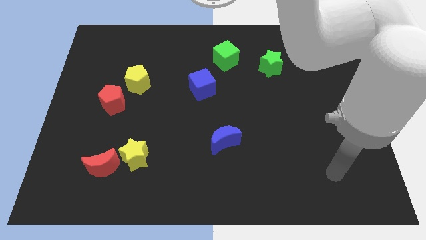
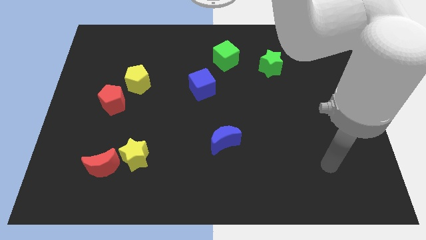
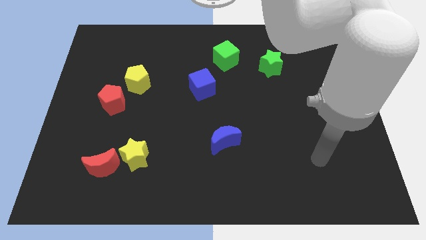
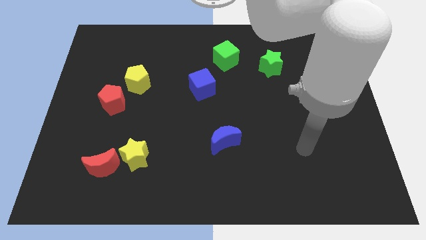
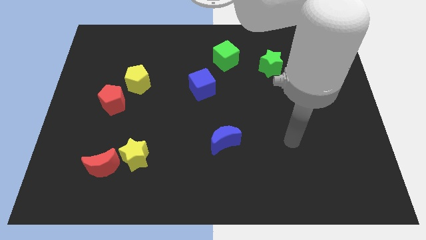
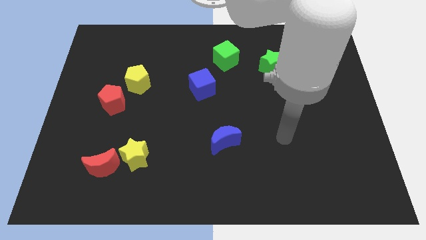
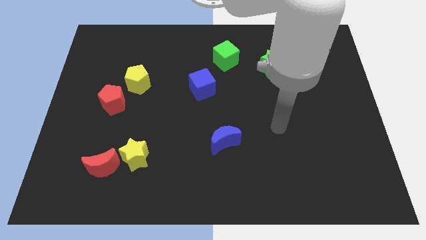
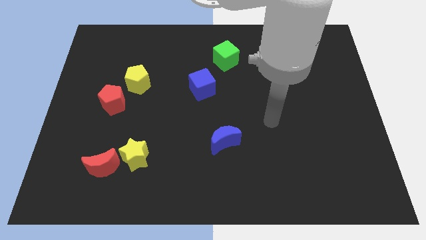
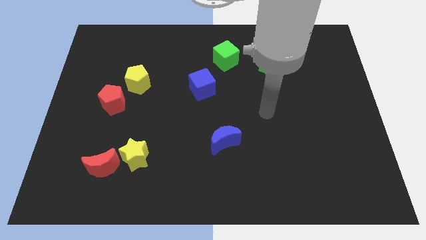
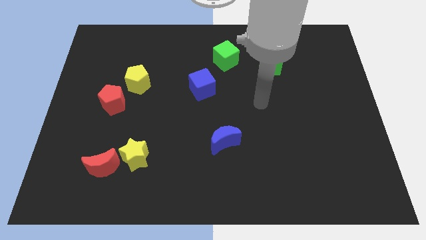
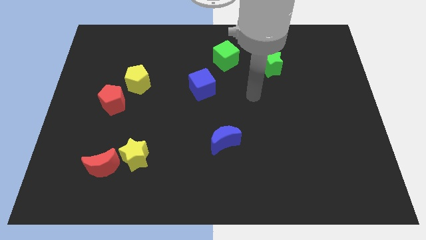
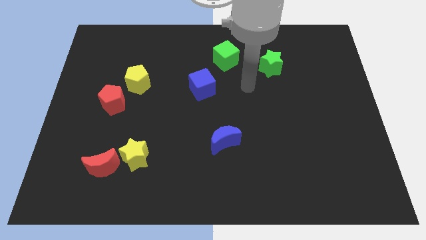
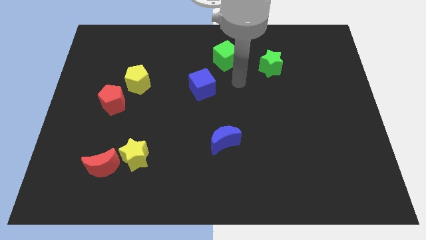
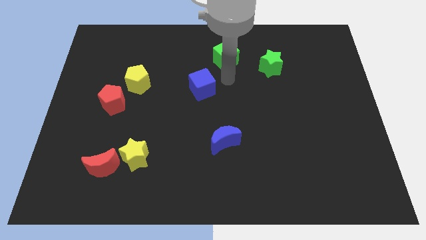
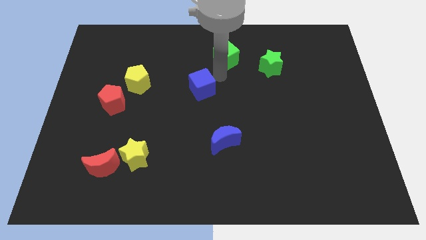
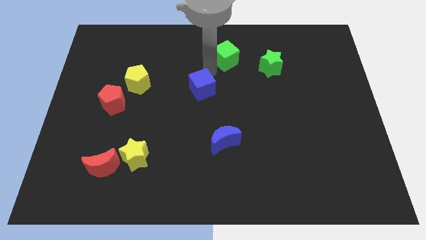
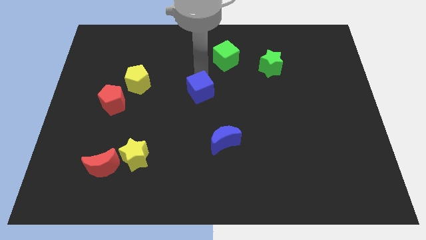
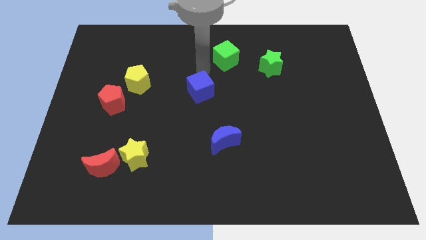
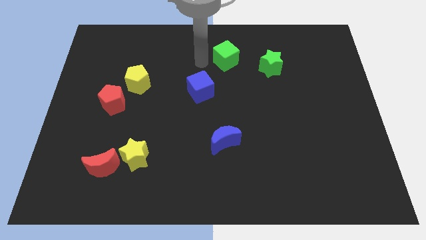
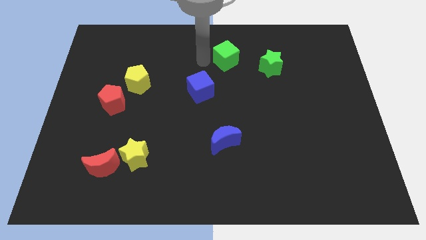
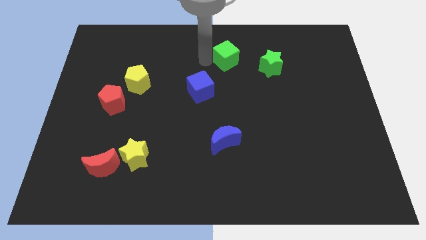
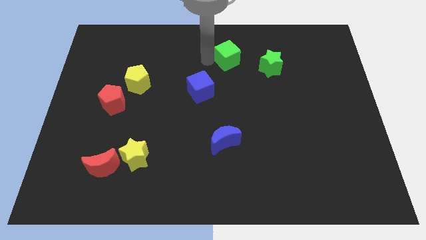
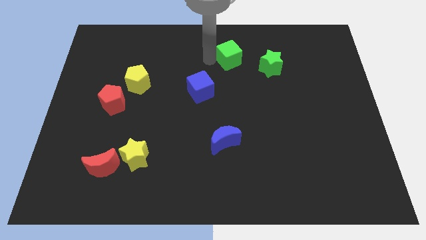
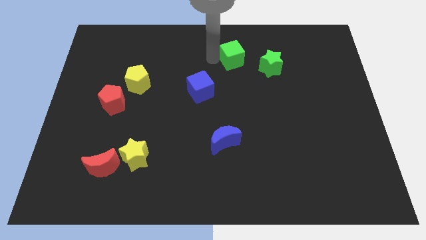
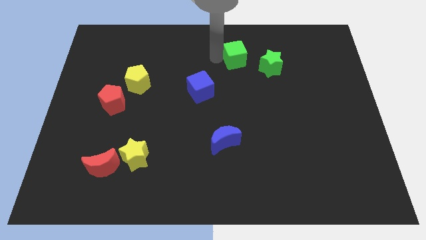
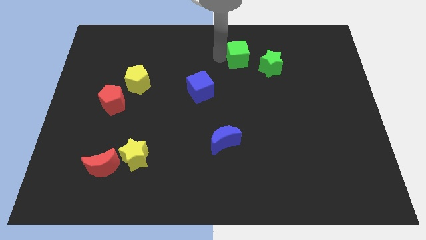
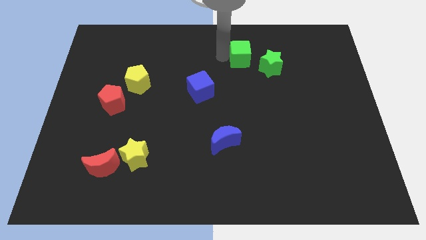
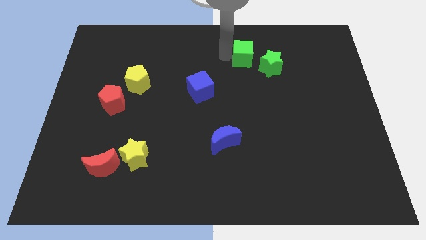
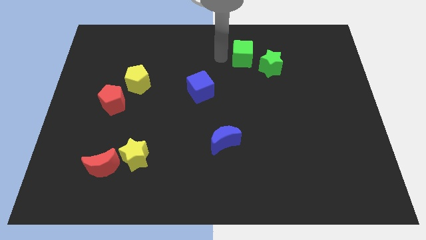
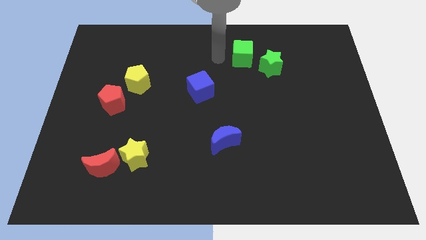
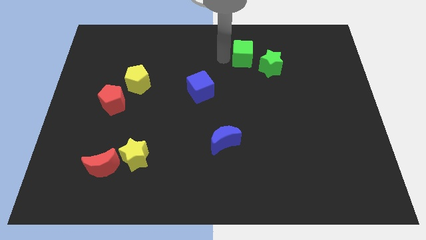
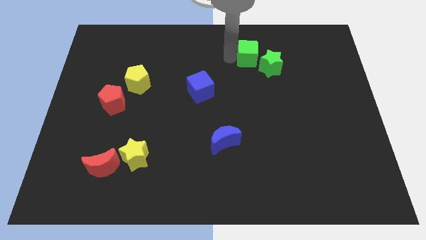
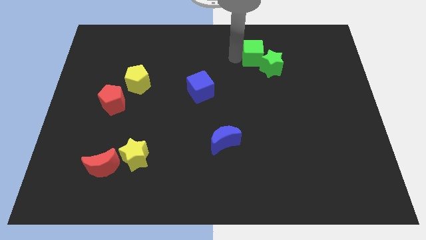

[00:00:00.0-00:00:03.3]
move the green cube right somewhat

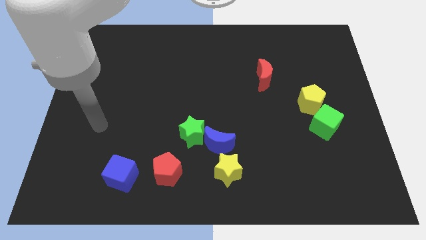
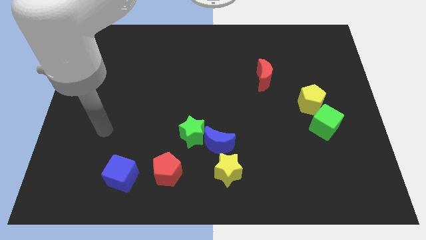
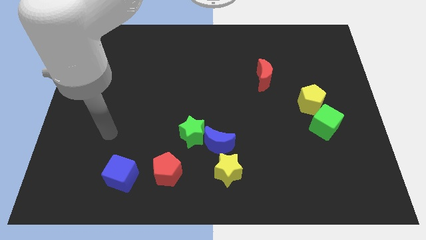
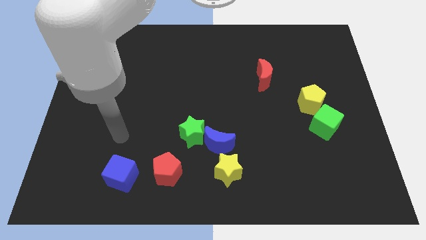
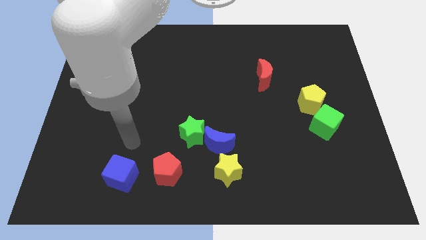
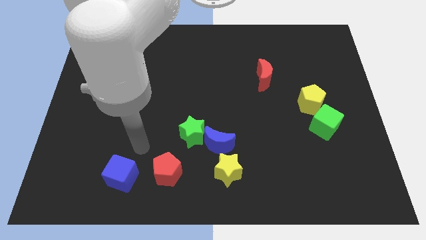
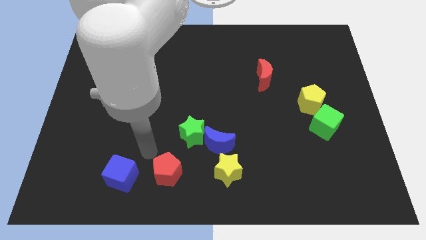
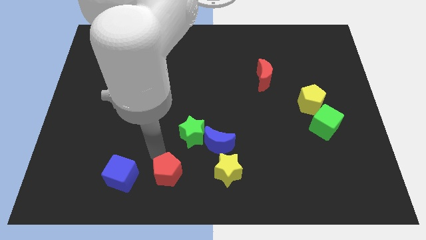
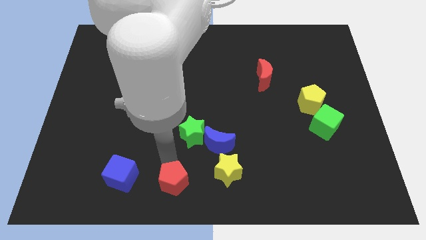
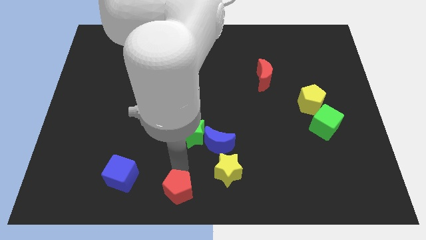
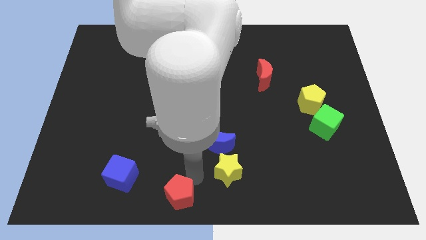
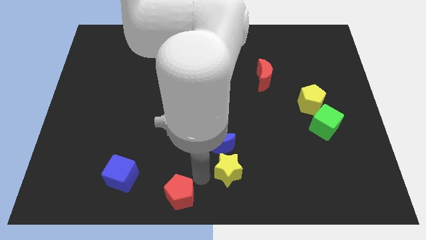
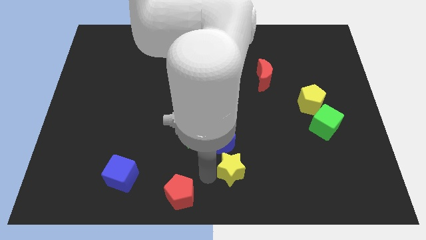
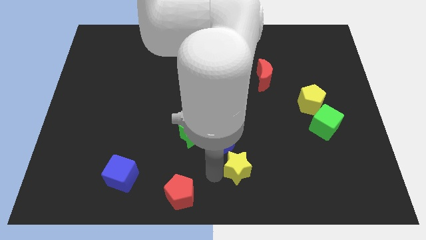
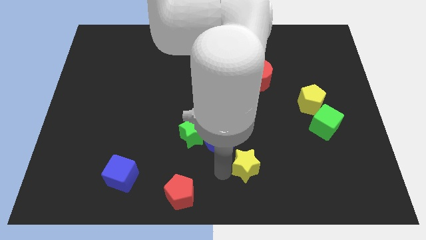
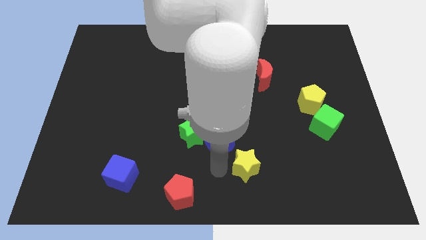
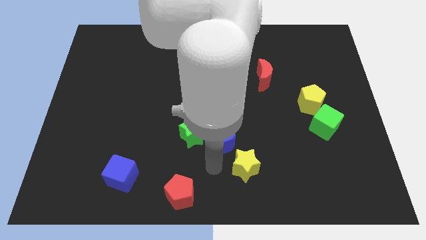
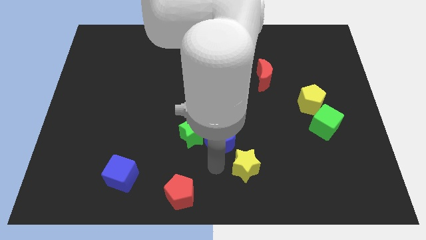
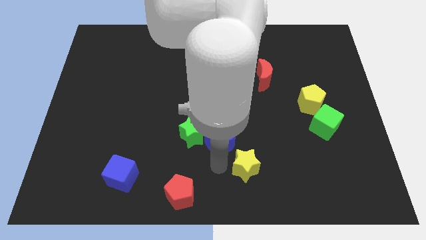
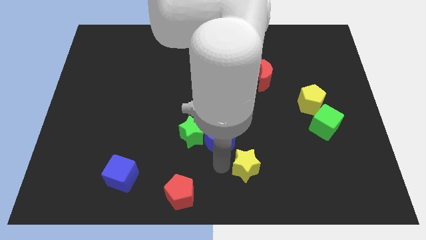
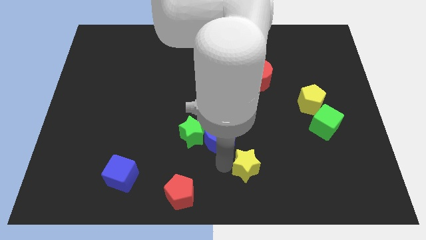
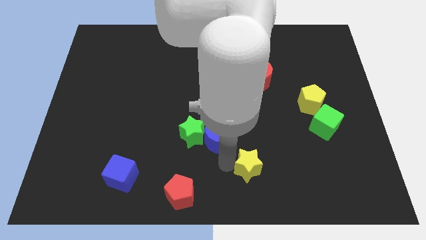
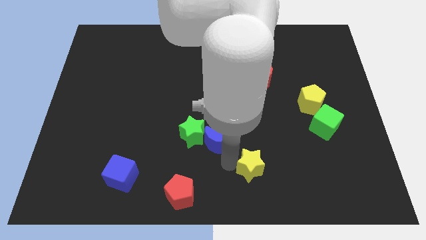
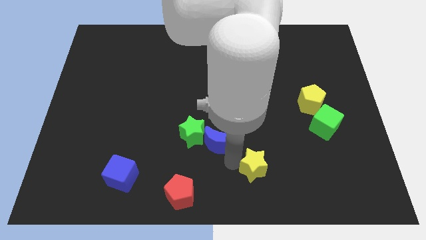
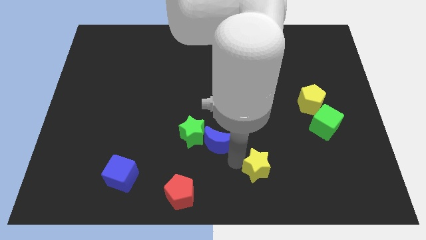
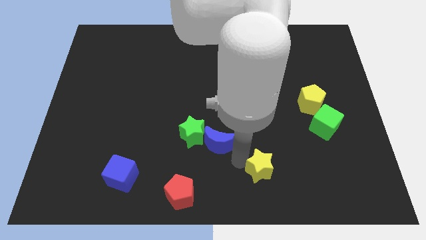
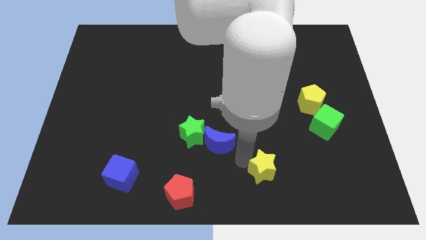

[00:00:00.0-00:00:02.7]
slide the yellow star a little right

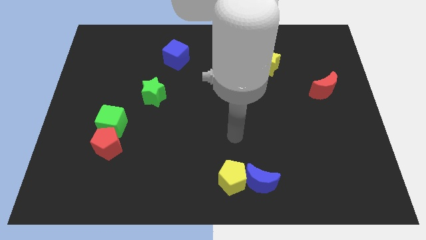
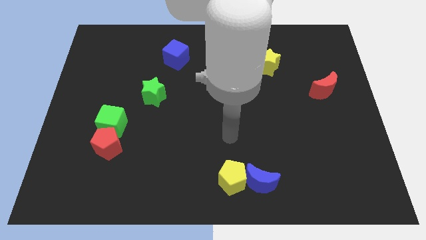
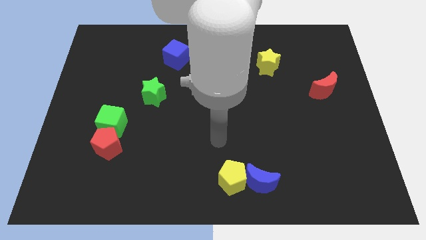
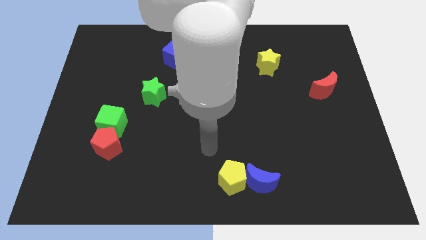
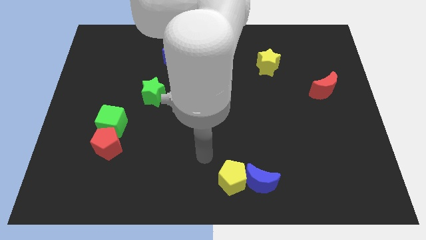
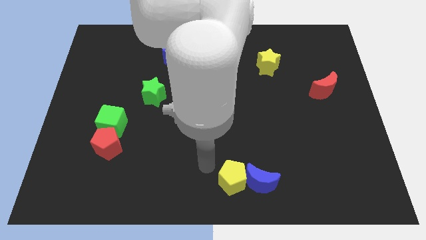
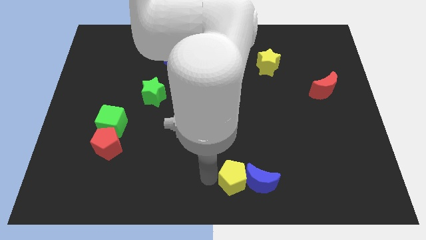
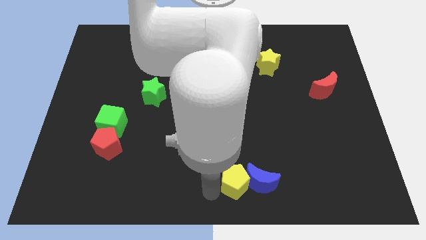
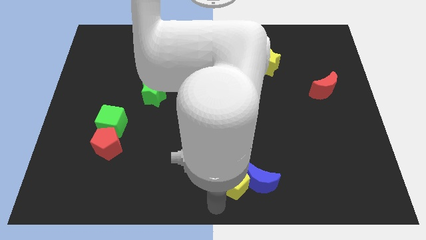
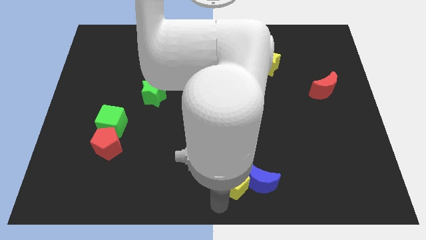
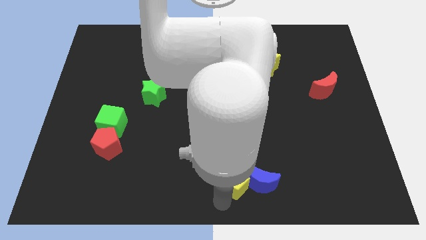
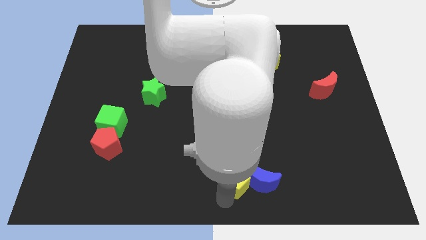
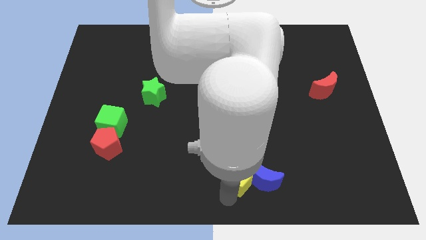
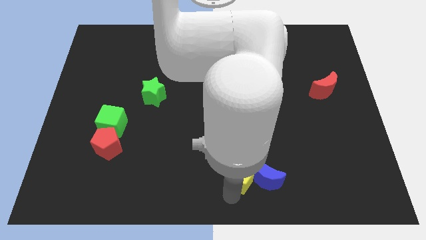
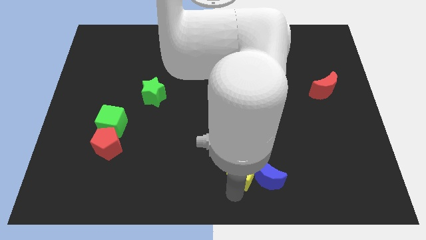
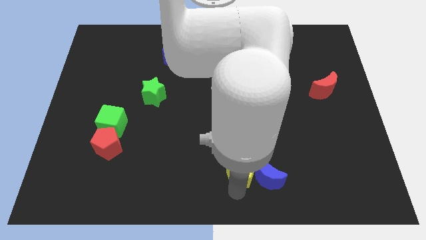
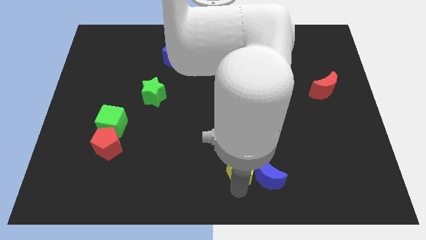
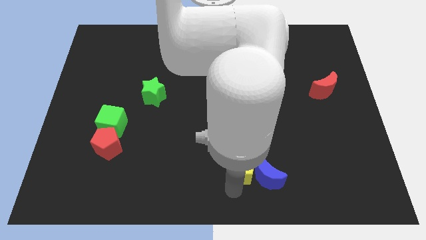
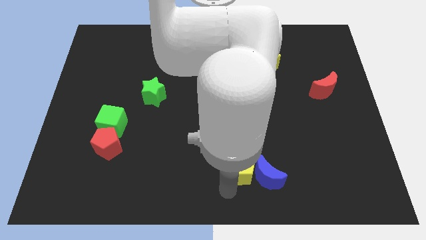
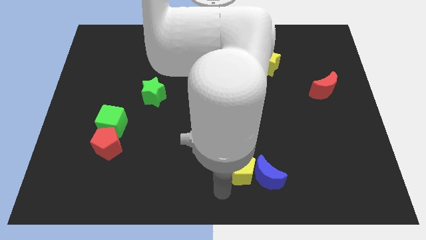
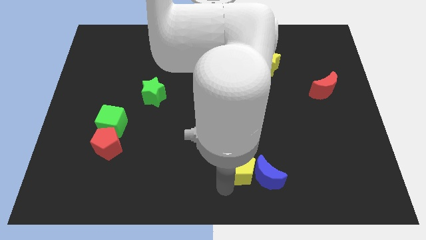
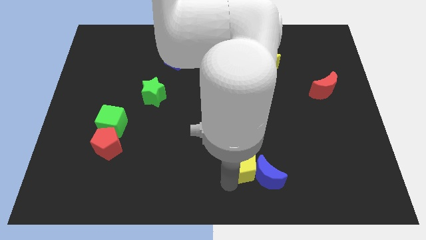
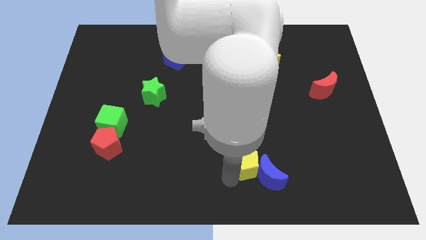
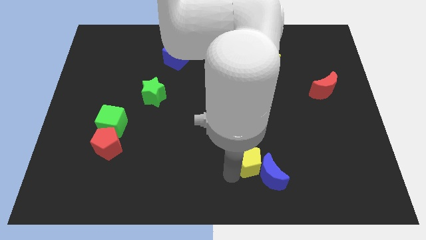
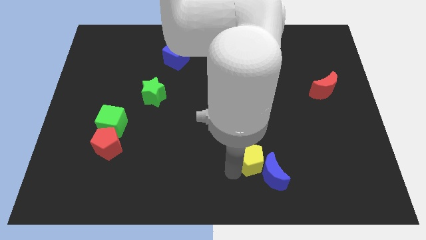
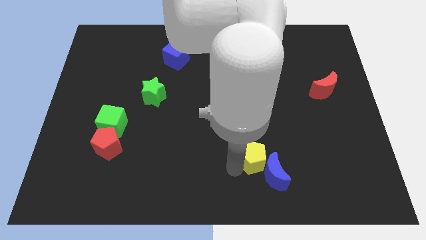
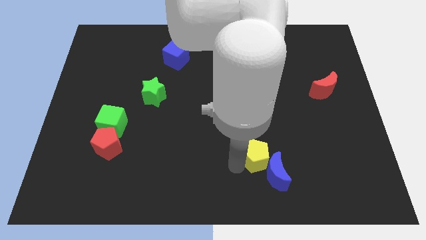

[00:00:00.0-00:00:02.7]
slightly push the yellow pentagon up and then right
